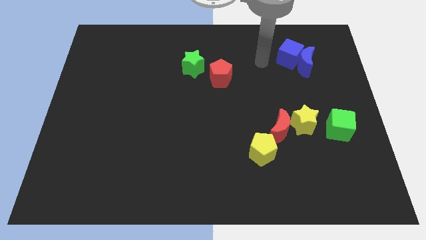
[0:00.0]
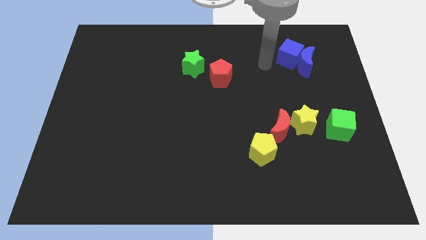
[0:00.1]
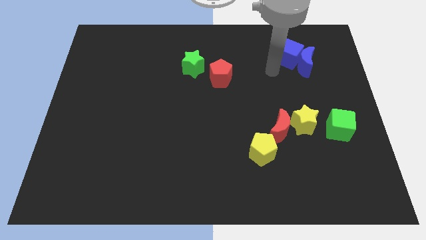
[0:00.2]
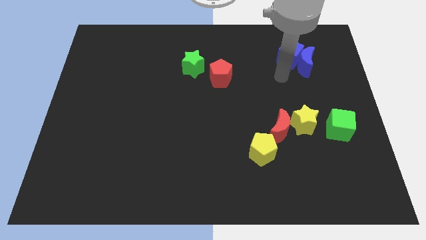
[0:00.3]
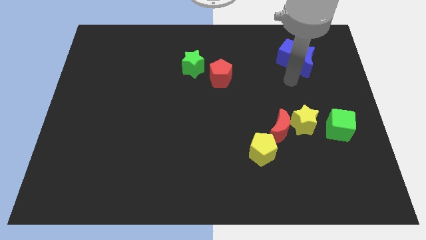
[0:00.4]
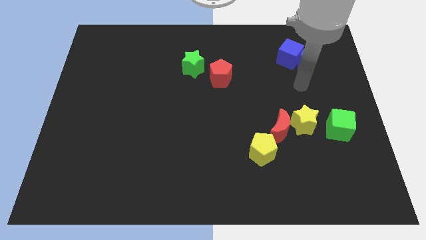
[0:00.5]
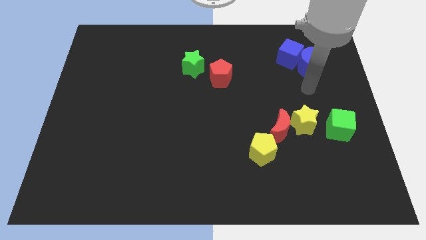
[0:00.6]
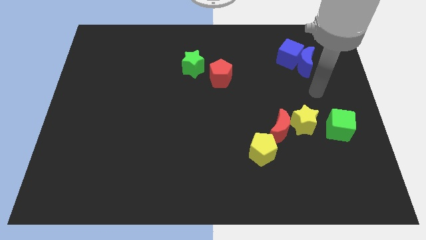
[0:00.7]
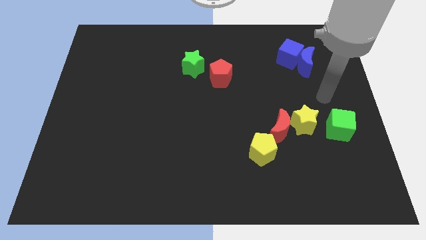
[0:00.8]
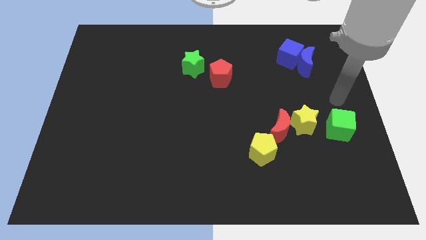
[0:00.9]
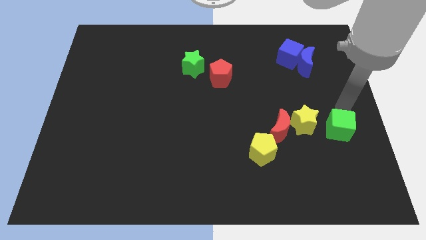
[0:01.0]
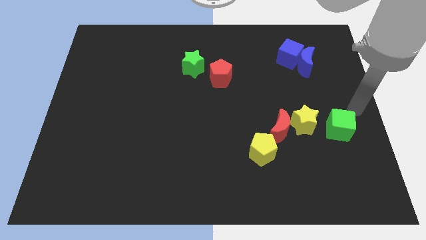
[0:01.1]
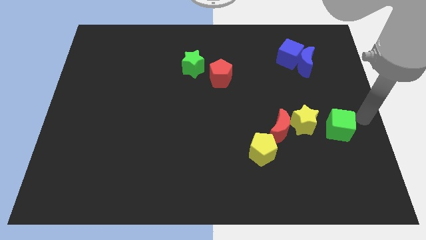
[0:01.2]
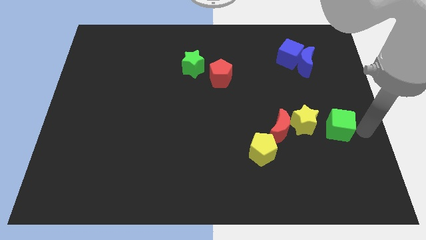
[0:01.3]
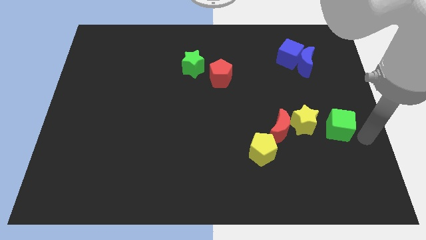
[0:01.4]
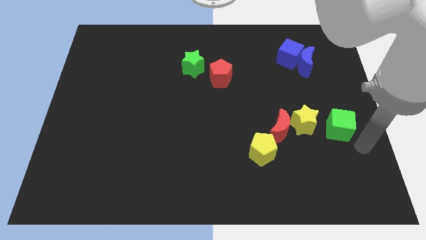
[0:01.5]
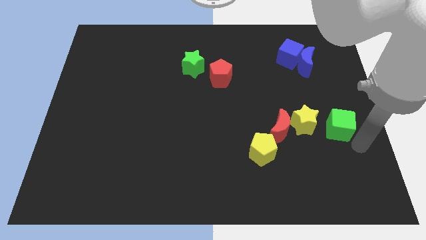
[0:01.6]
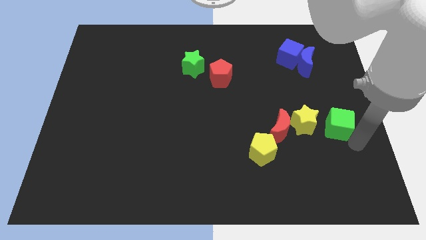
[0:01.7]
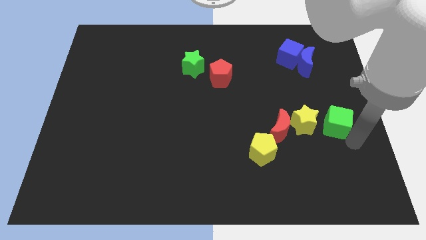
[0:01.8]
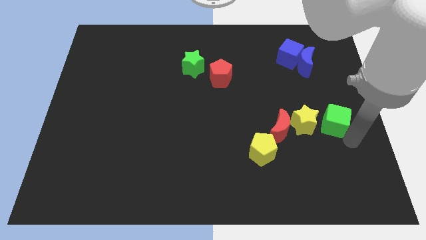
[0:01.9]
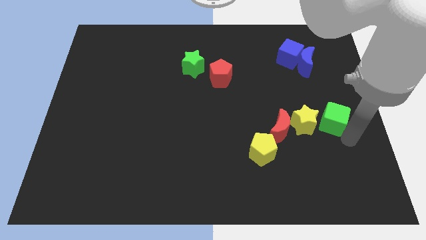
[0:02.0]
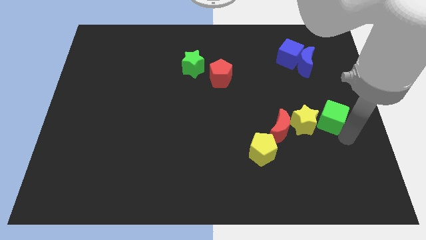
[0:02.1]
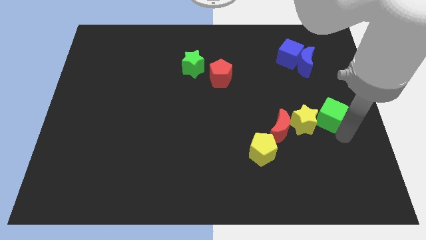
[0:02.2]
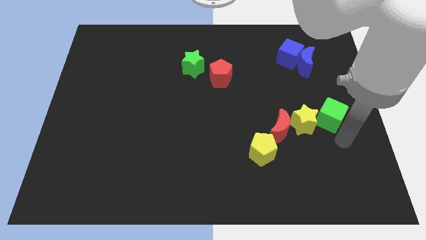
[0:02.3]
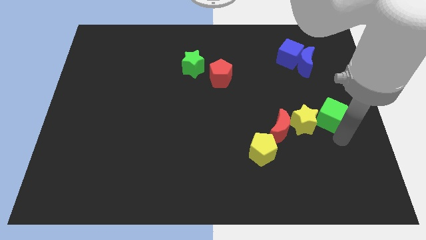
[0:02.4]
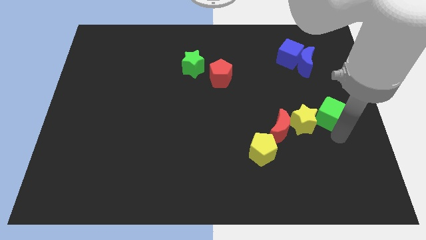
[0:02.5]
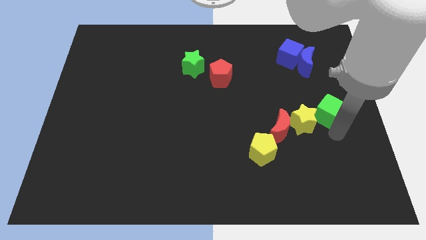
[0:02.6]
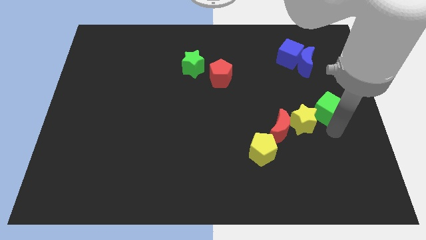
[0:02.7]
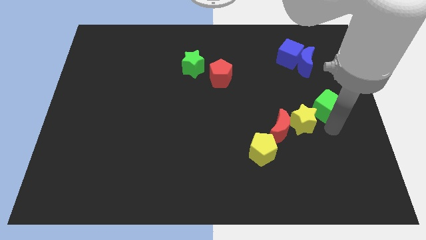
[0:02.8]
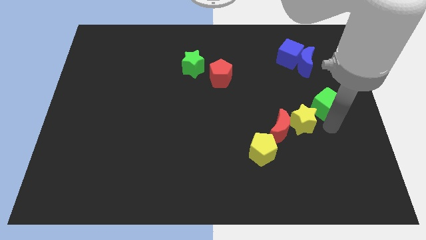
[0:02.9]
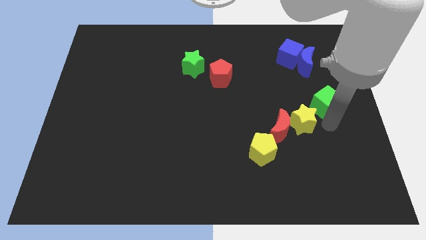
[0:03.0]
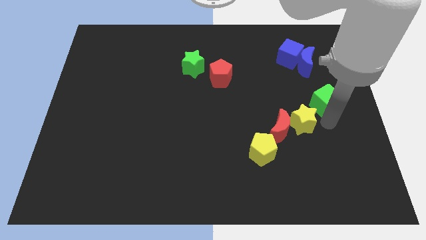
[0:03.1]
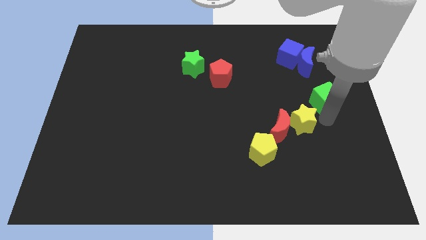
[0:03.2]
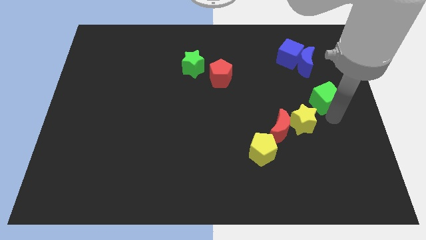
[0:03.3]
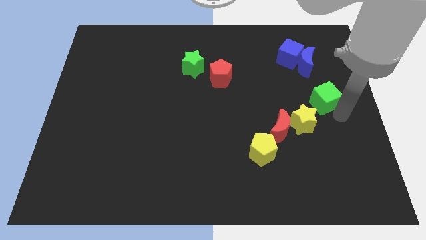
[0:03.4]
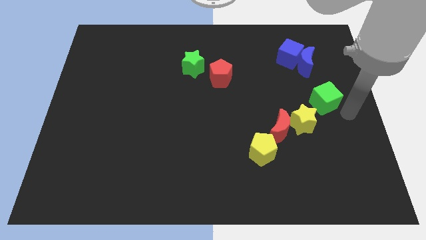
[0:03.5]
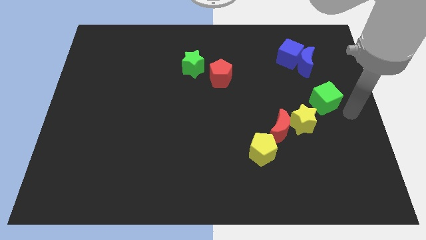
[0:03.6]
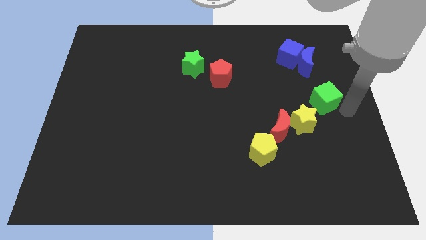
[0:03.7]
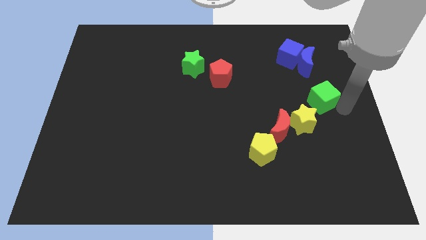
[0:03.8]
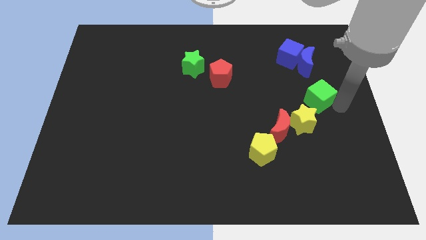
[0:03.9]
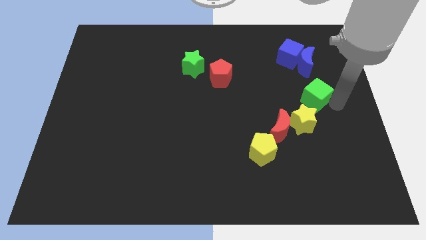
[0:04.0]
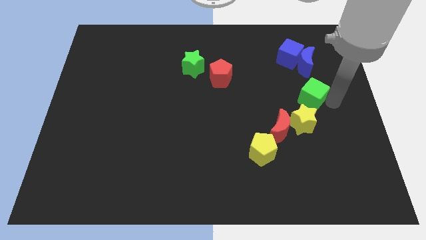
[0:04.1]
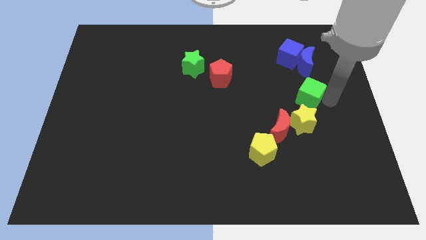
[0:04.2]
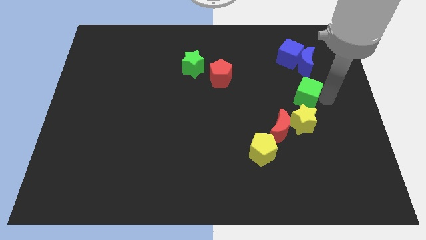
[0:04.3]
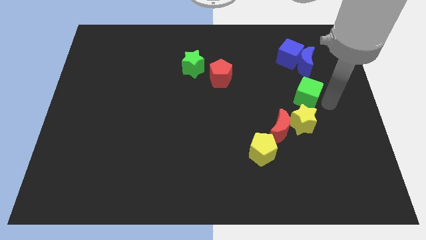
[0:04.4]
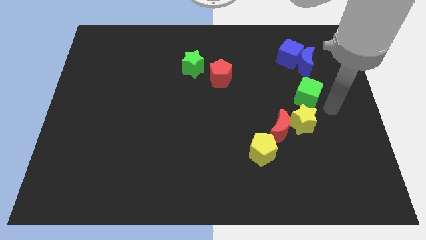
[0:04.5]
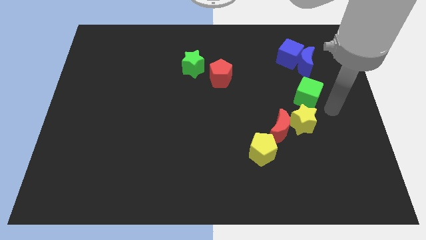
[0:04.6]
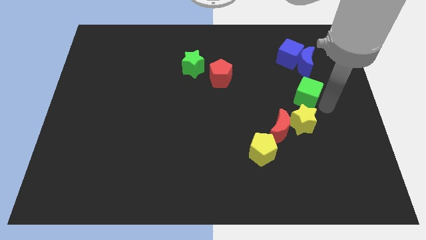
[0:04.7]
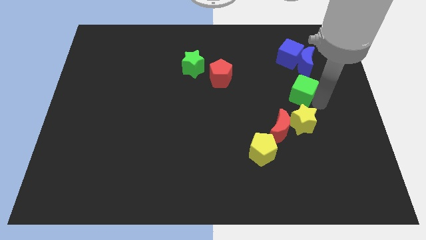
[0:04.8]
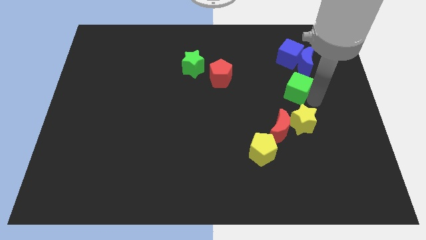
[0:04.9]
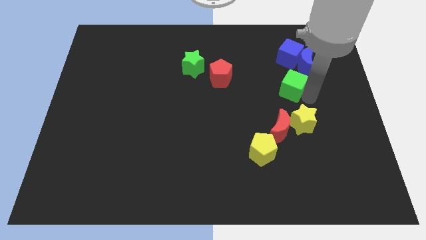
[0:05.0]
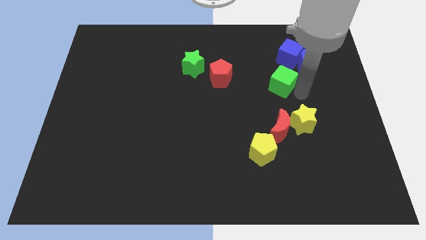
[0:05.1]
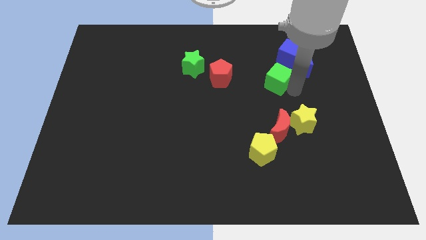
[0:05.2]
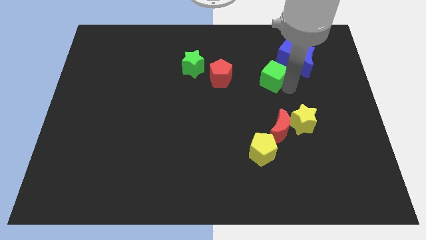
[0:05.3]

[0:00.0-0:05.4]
push the green cube upwards and then to the left

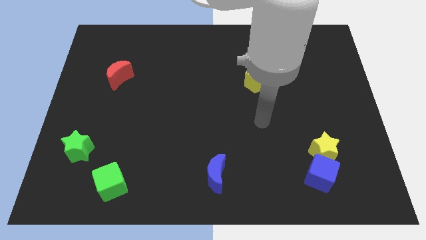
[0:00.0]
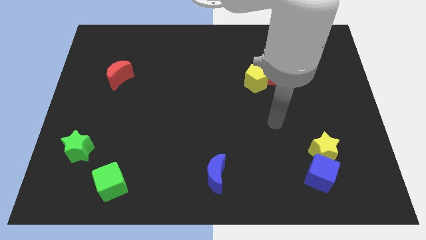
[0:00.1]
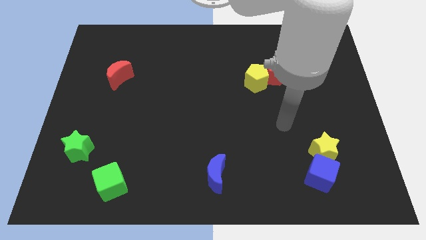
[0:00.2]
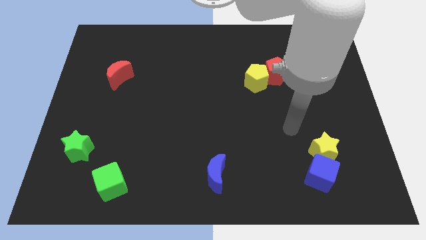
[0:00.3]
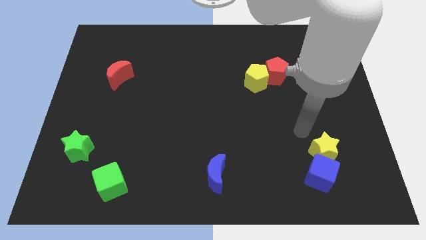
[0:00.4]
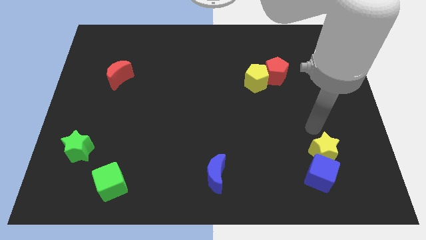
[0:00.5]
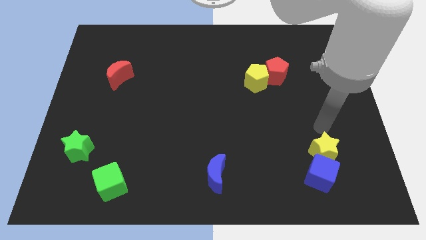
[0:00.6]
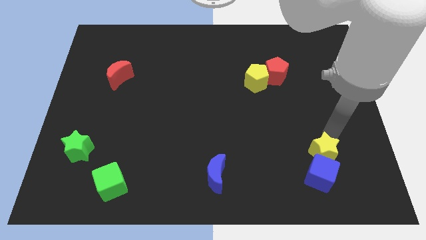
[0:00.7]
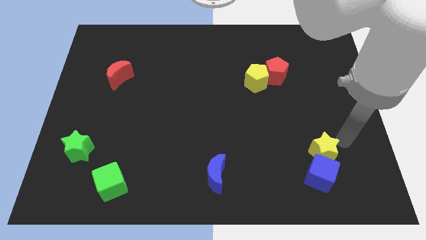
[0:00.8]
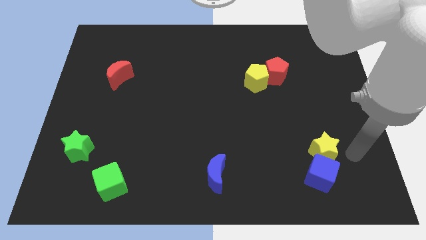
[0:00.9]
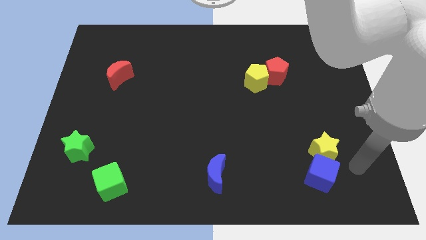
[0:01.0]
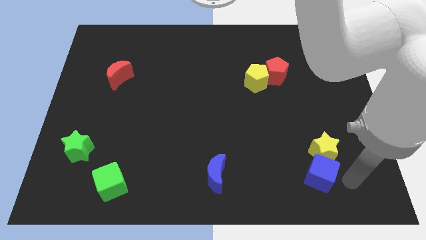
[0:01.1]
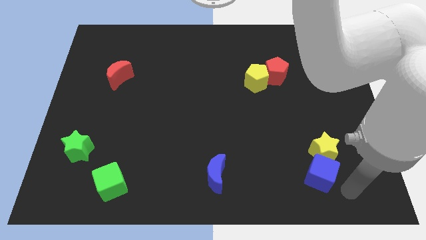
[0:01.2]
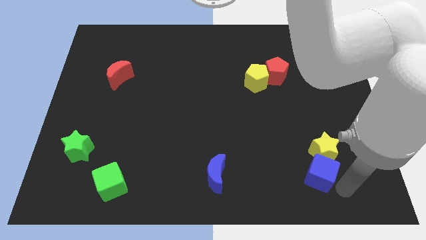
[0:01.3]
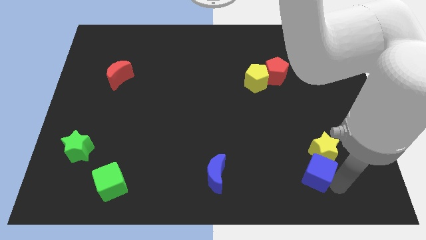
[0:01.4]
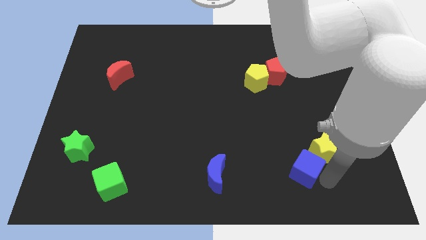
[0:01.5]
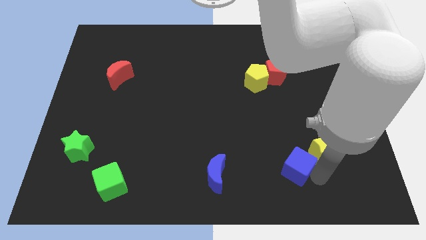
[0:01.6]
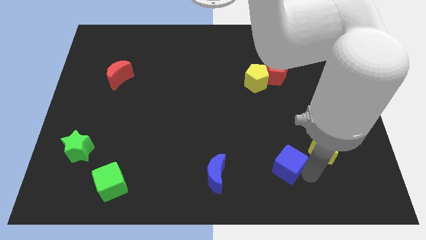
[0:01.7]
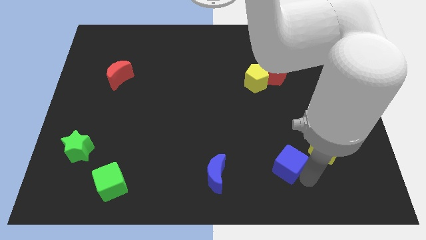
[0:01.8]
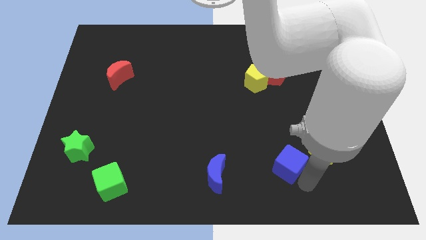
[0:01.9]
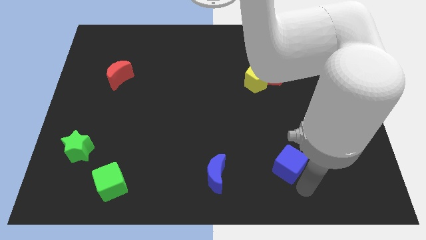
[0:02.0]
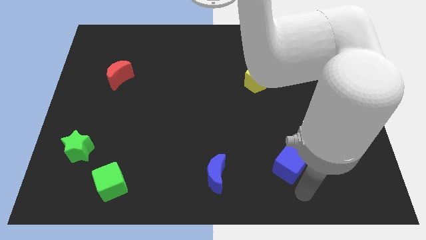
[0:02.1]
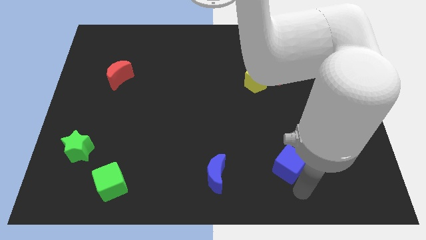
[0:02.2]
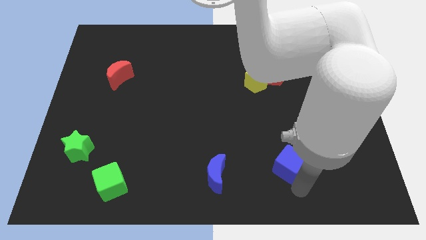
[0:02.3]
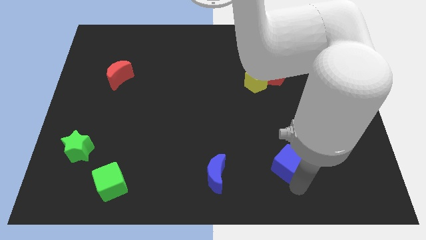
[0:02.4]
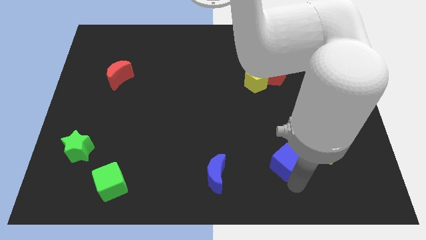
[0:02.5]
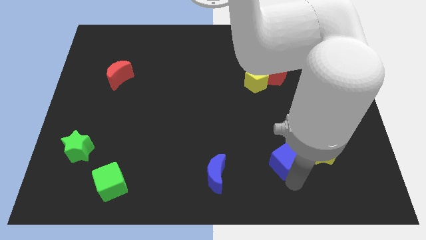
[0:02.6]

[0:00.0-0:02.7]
move the blue cube slightly diagonally up and left
